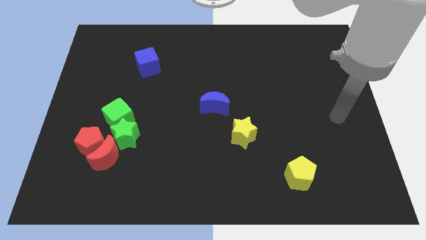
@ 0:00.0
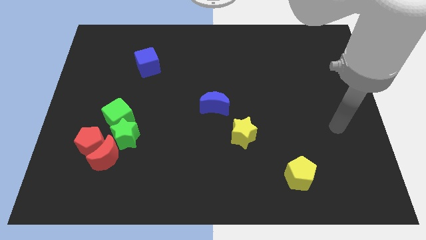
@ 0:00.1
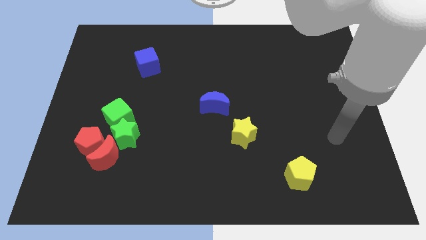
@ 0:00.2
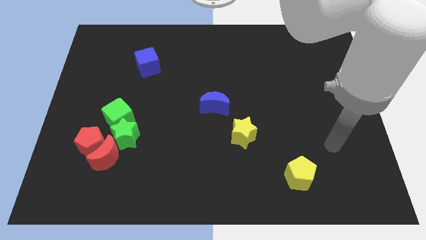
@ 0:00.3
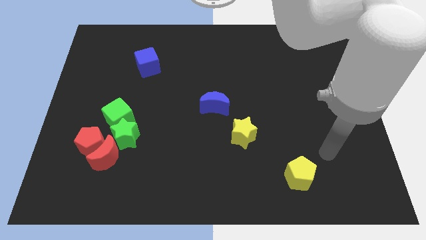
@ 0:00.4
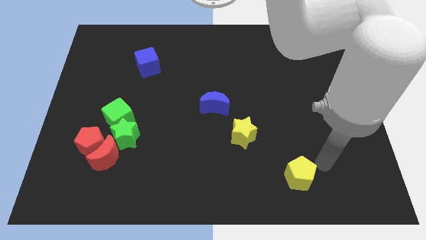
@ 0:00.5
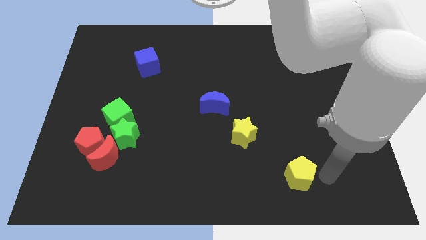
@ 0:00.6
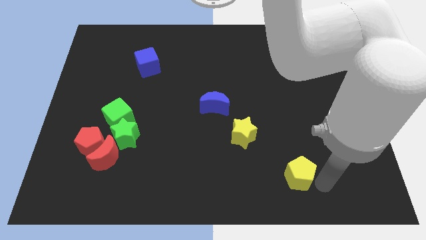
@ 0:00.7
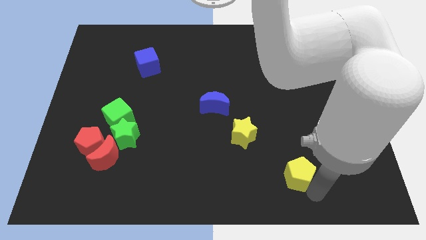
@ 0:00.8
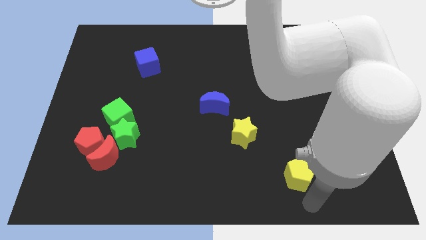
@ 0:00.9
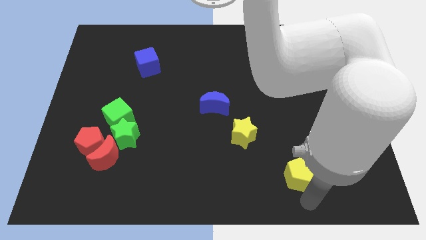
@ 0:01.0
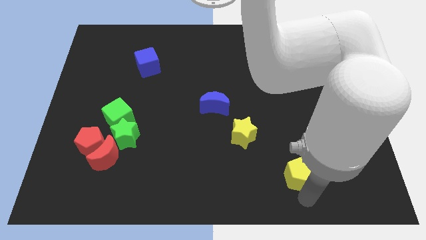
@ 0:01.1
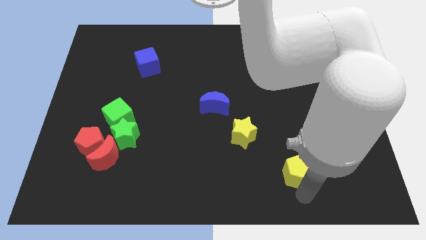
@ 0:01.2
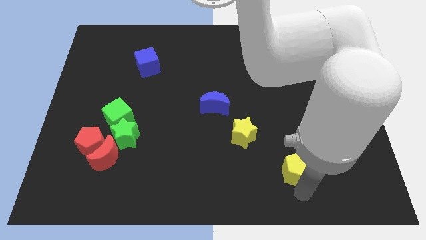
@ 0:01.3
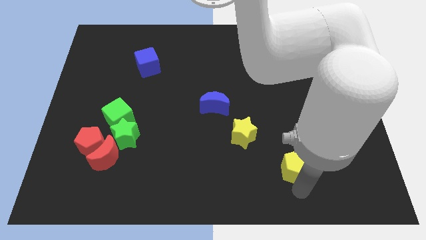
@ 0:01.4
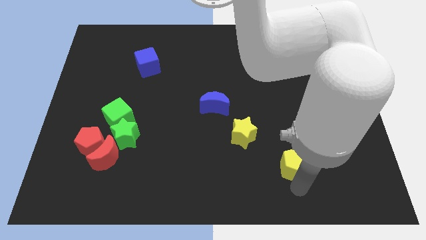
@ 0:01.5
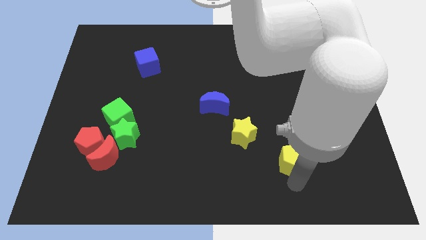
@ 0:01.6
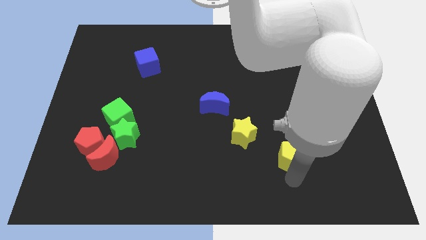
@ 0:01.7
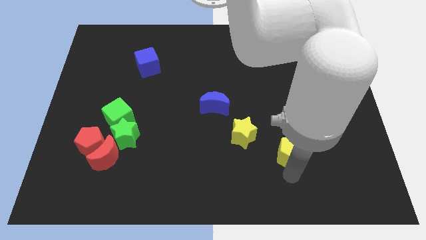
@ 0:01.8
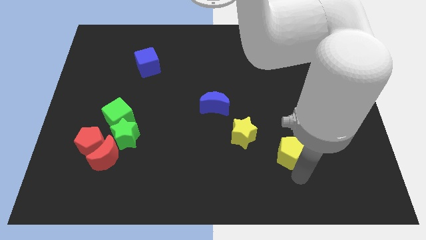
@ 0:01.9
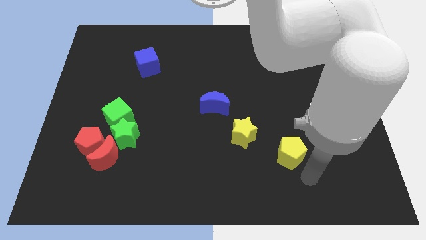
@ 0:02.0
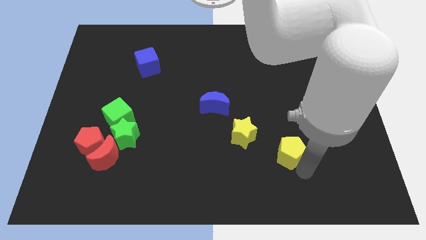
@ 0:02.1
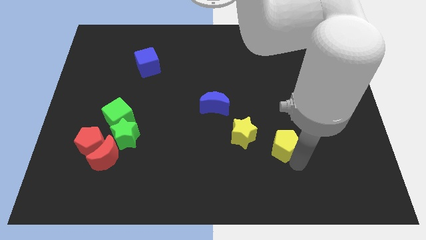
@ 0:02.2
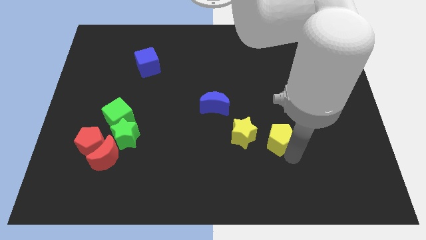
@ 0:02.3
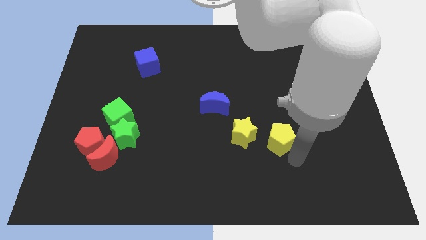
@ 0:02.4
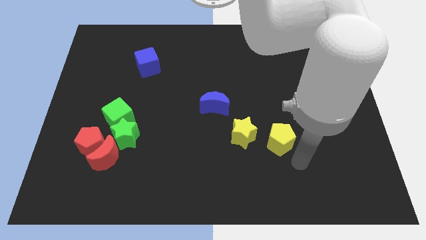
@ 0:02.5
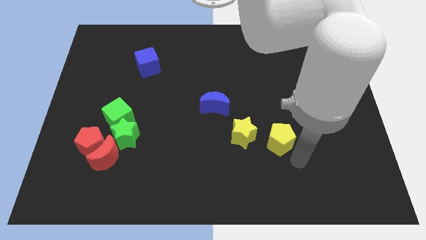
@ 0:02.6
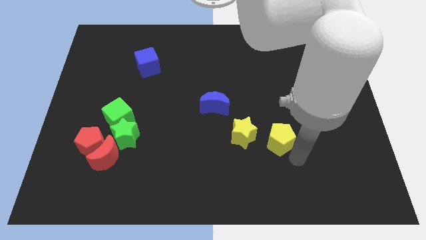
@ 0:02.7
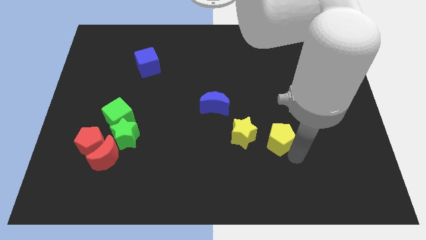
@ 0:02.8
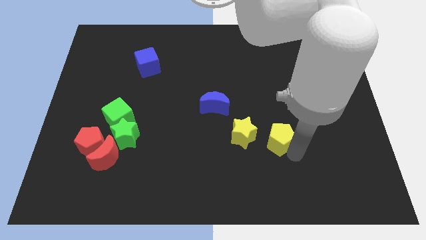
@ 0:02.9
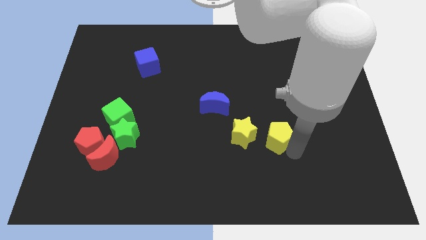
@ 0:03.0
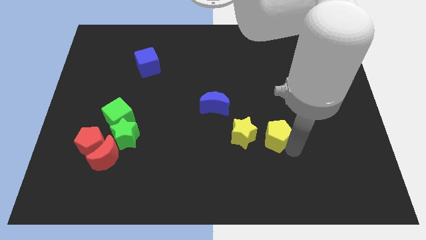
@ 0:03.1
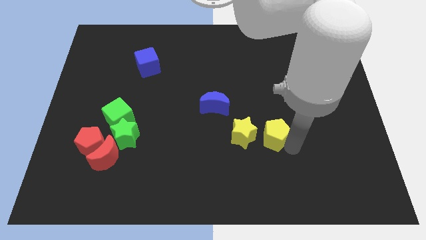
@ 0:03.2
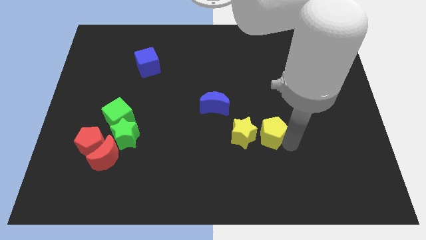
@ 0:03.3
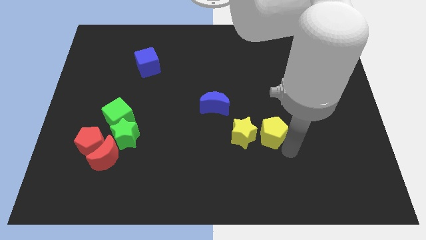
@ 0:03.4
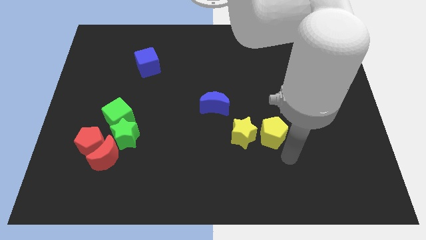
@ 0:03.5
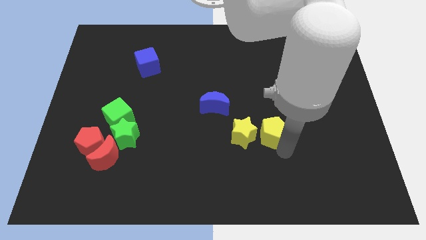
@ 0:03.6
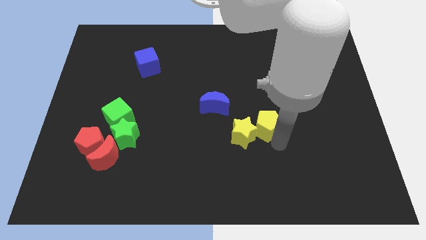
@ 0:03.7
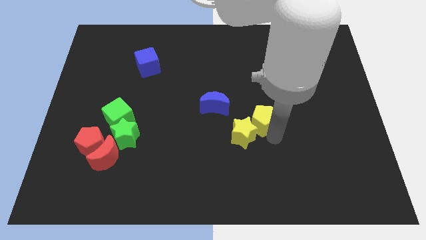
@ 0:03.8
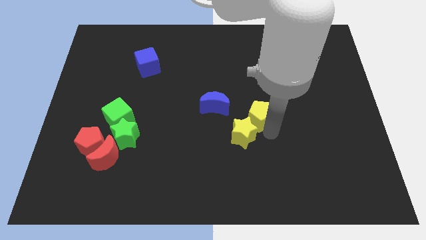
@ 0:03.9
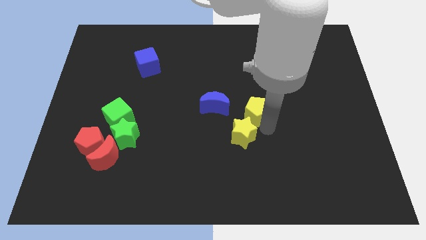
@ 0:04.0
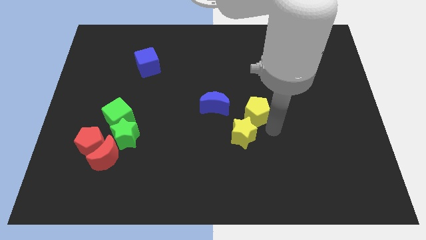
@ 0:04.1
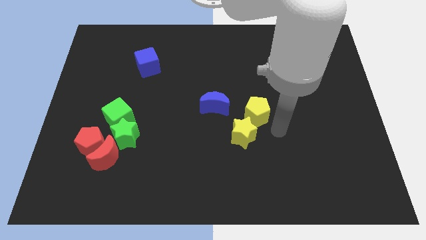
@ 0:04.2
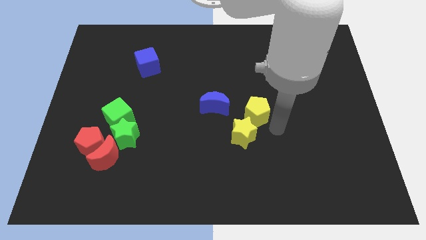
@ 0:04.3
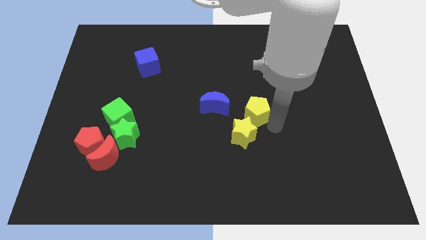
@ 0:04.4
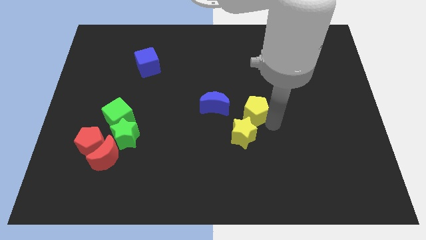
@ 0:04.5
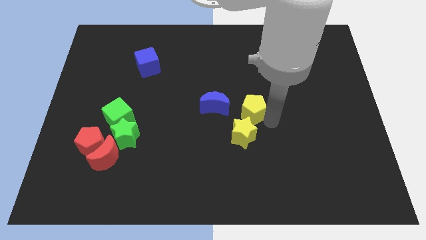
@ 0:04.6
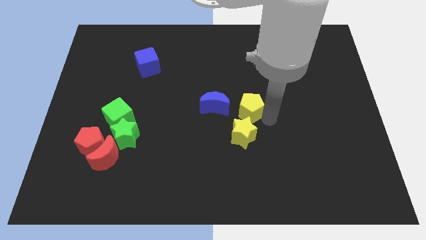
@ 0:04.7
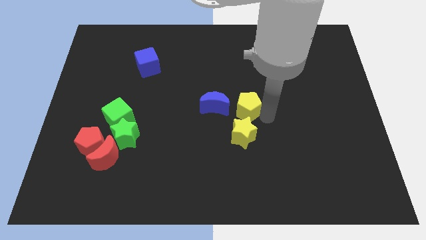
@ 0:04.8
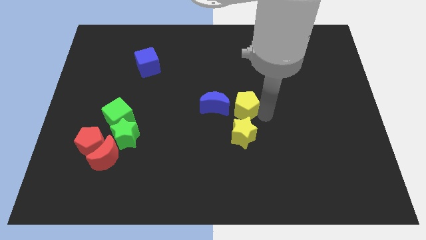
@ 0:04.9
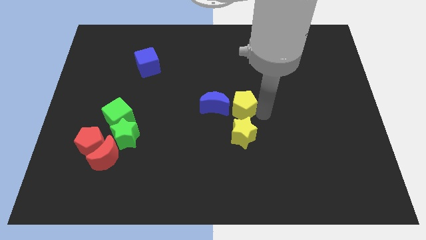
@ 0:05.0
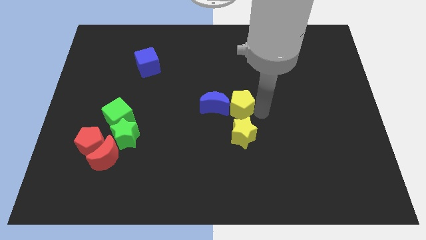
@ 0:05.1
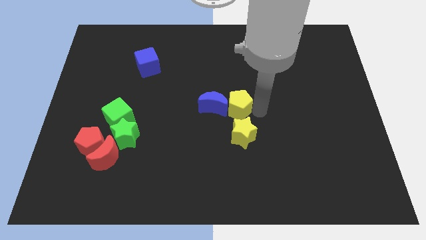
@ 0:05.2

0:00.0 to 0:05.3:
move the yellow pentagon diagonally up and left

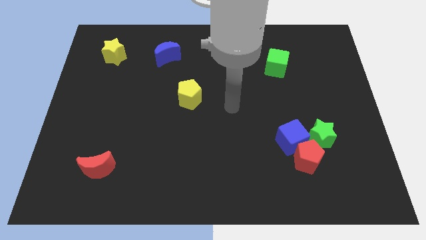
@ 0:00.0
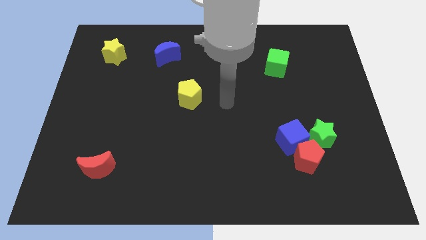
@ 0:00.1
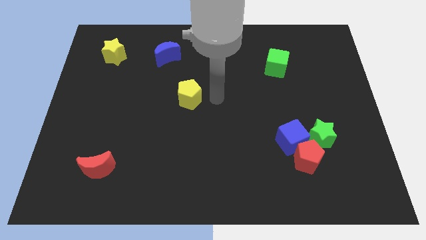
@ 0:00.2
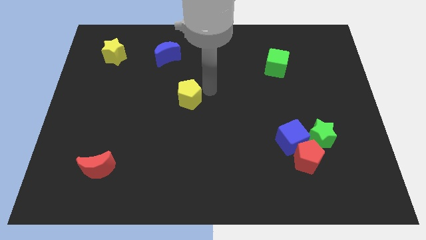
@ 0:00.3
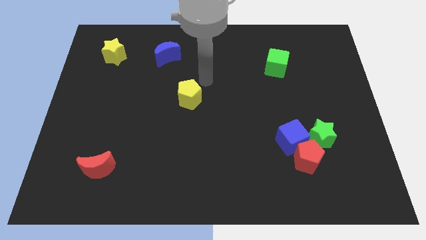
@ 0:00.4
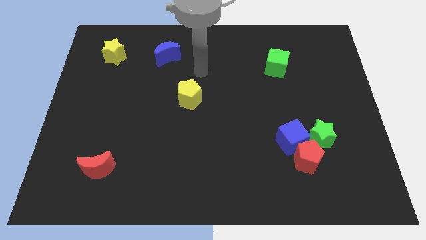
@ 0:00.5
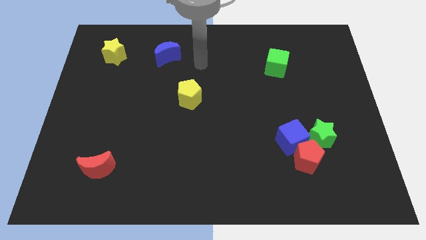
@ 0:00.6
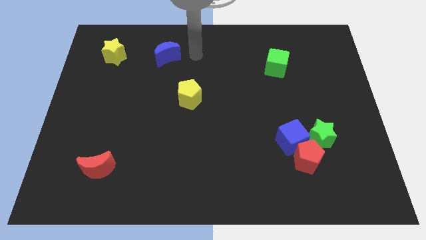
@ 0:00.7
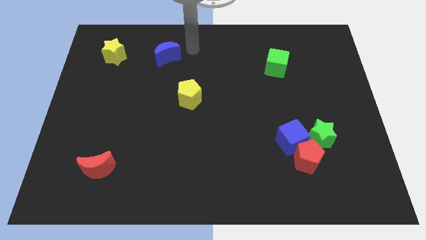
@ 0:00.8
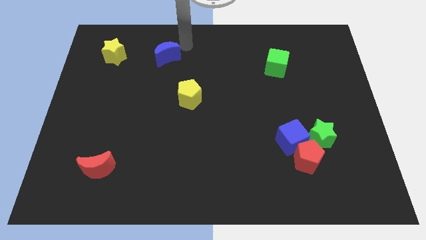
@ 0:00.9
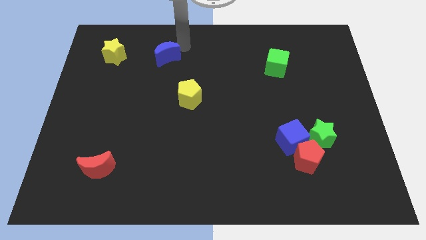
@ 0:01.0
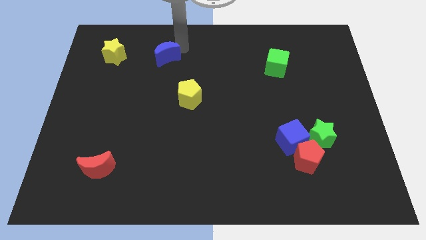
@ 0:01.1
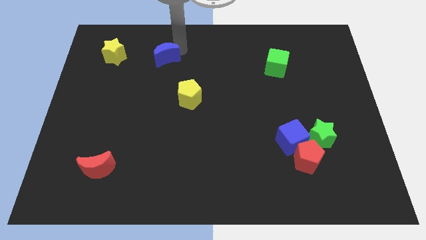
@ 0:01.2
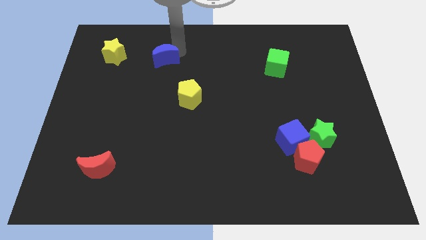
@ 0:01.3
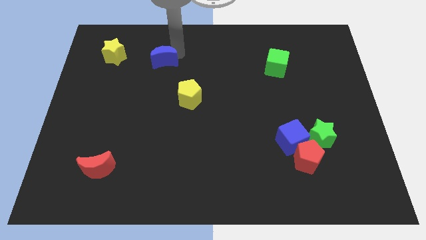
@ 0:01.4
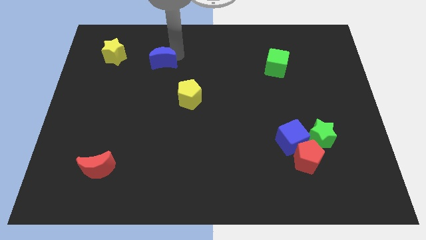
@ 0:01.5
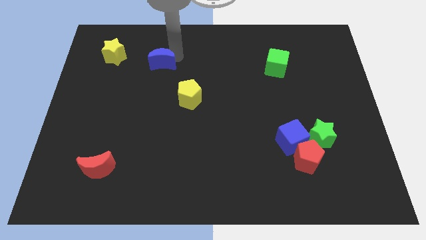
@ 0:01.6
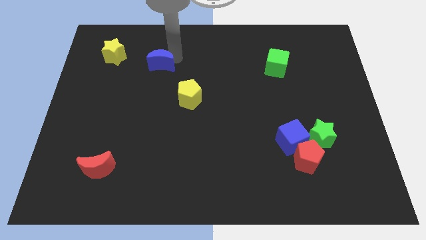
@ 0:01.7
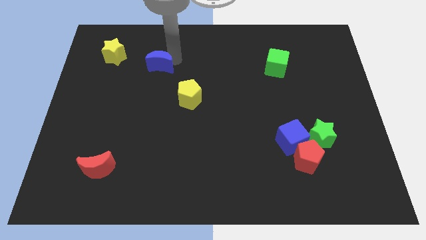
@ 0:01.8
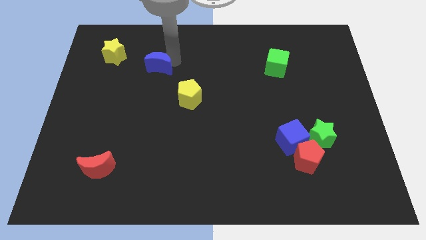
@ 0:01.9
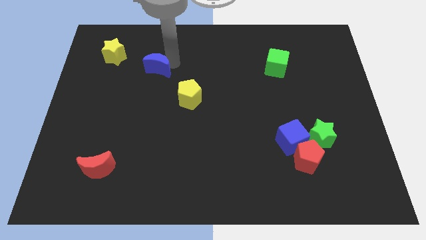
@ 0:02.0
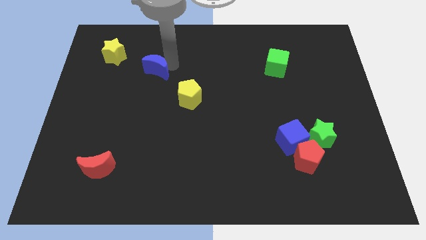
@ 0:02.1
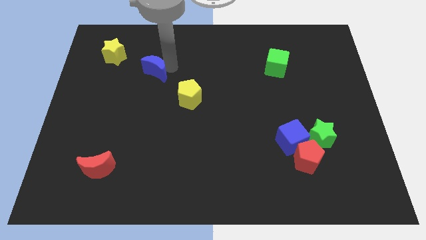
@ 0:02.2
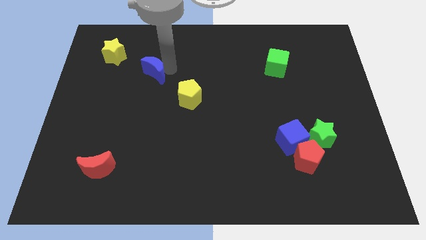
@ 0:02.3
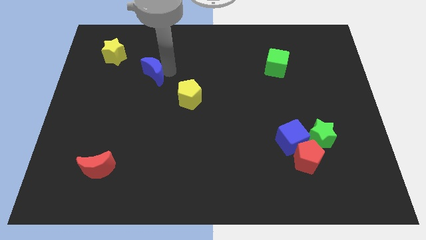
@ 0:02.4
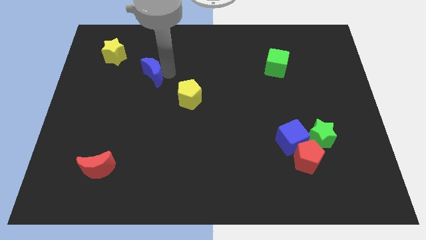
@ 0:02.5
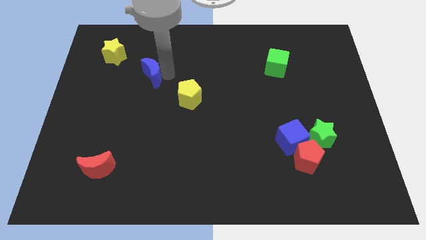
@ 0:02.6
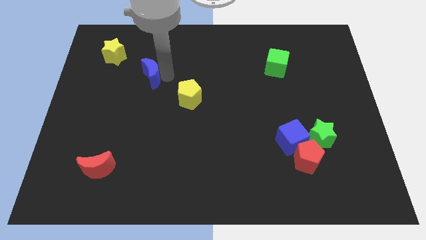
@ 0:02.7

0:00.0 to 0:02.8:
slightly move the blue moon down and to the left

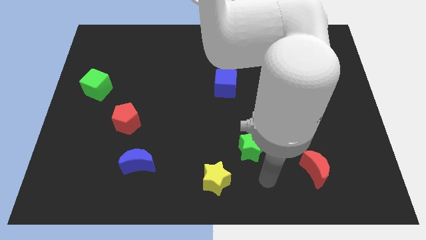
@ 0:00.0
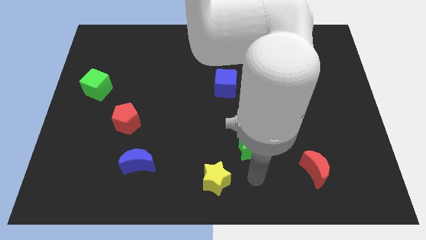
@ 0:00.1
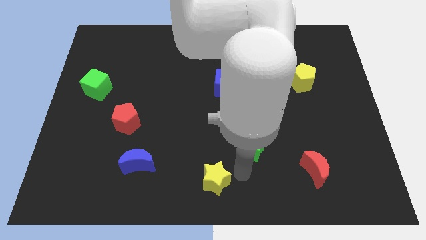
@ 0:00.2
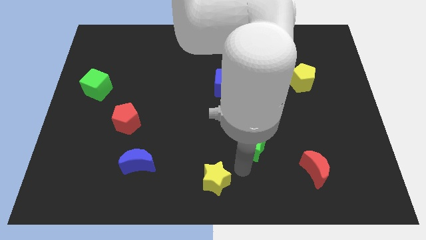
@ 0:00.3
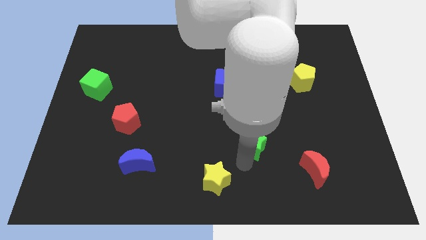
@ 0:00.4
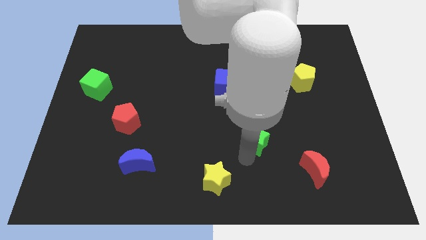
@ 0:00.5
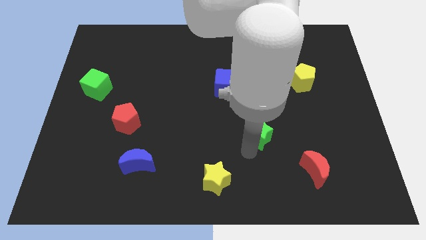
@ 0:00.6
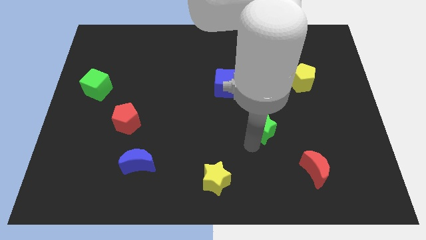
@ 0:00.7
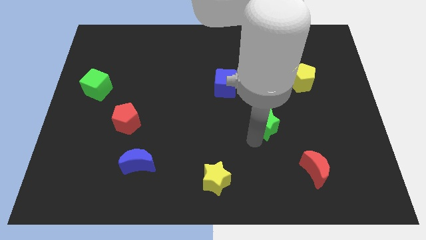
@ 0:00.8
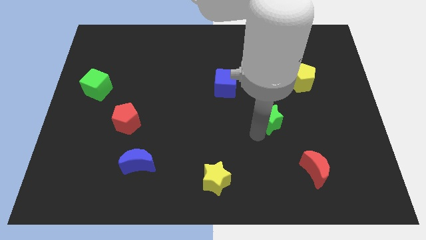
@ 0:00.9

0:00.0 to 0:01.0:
slightly slide the green star upwards and right diagonally
